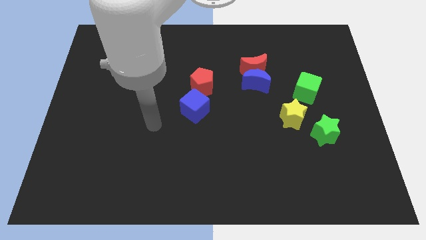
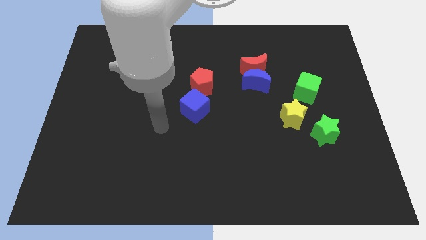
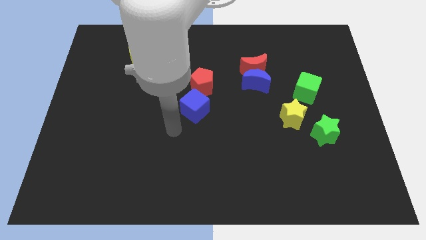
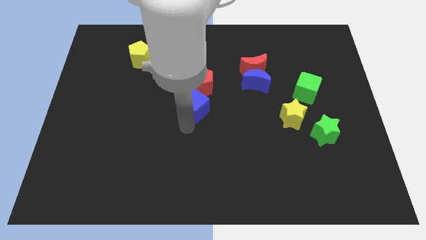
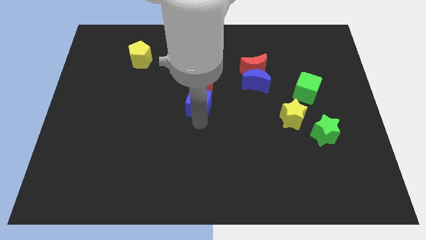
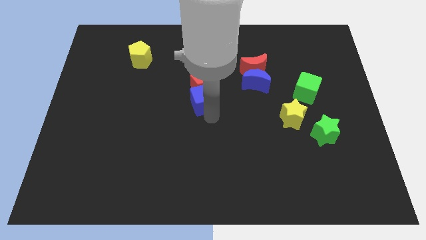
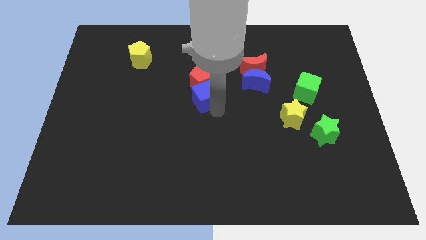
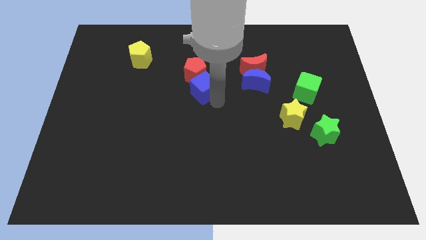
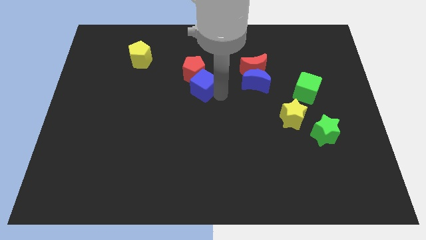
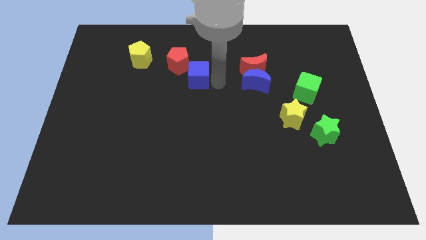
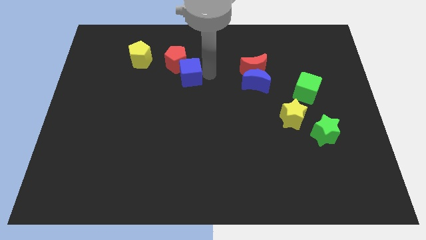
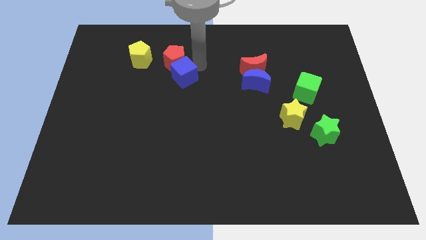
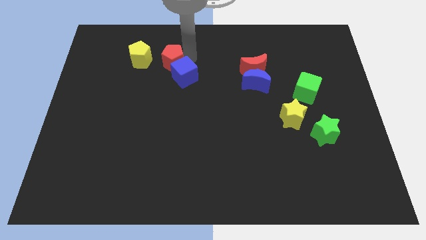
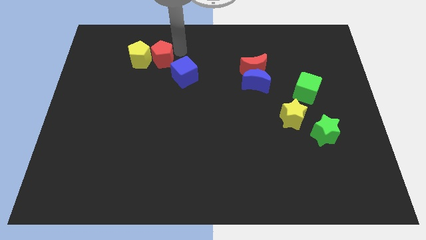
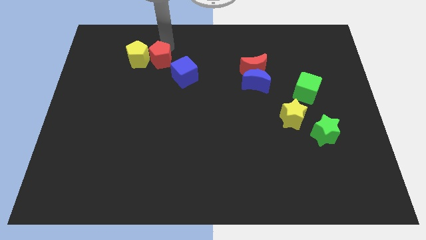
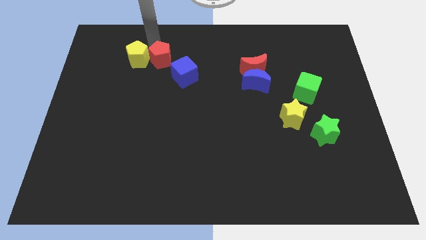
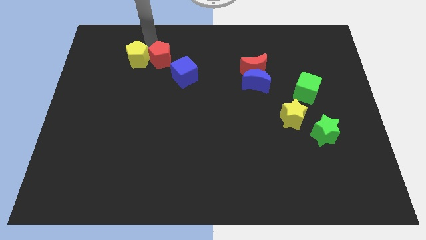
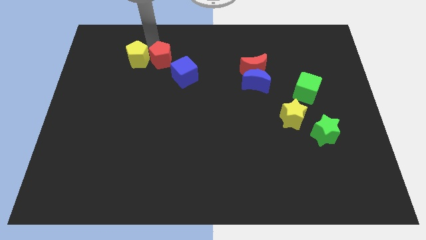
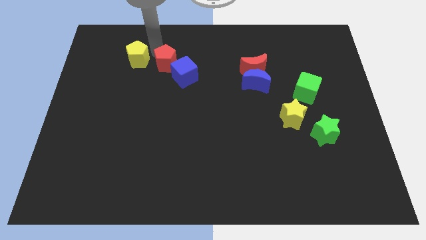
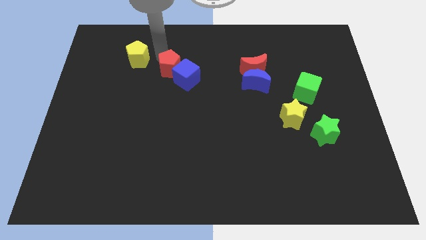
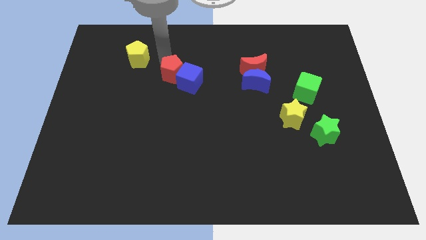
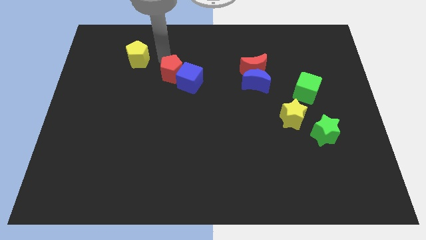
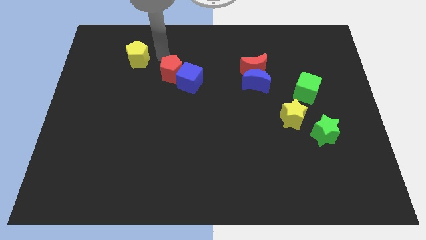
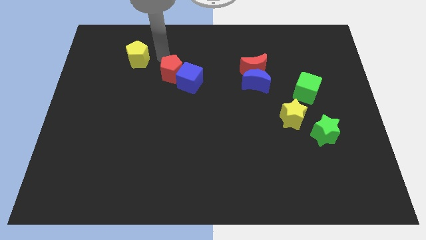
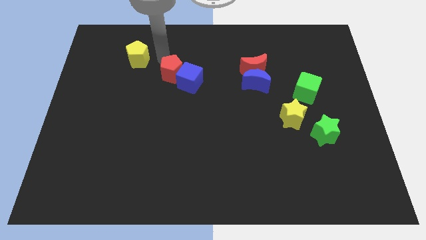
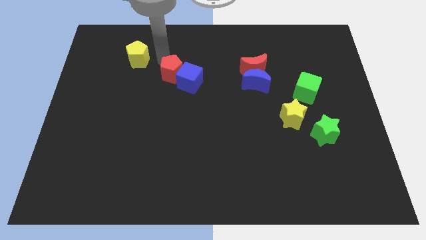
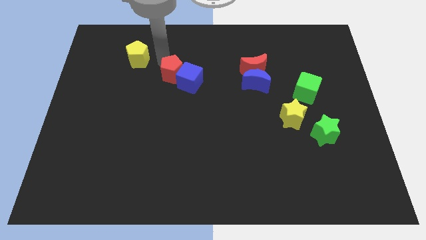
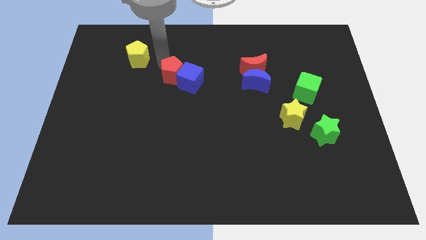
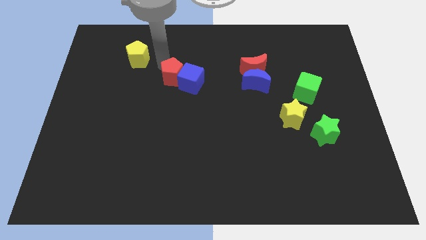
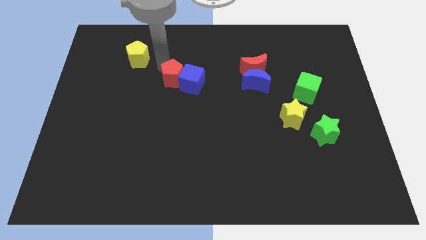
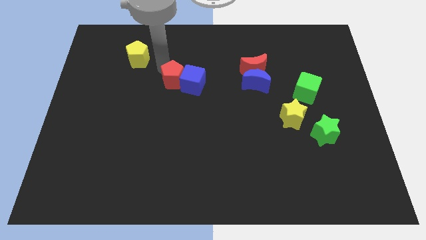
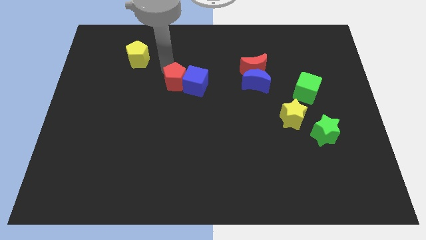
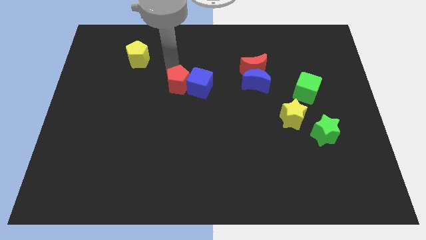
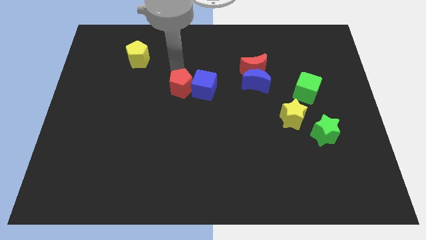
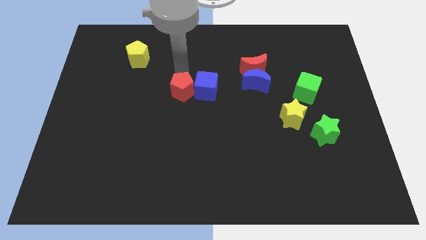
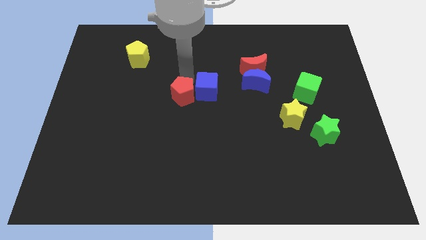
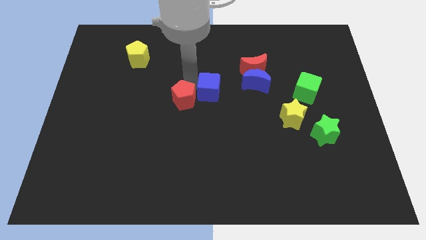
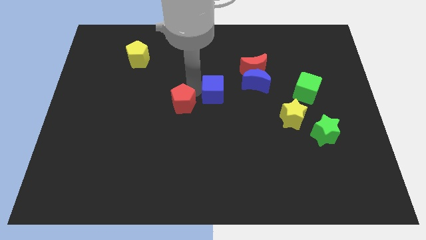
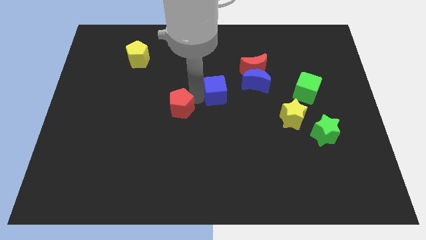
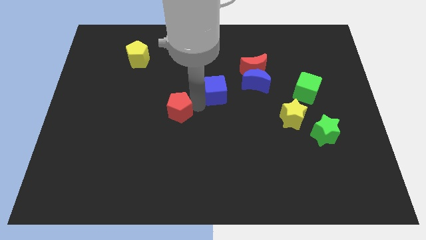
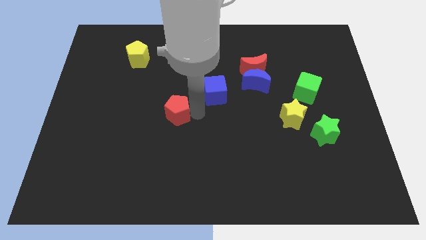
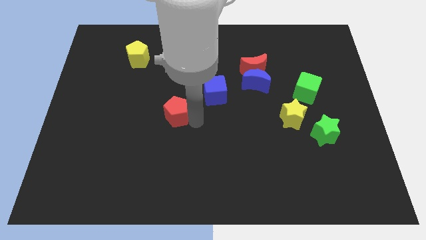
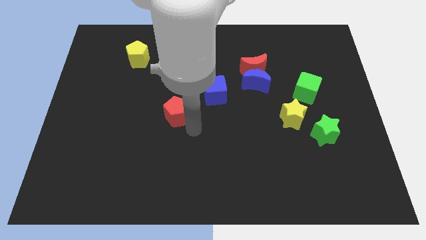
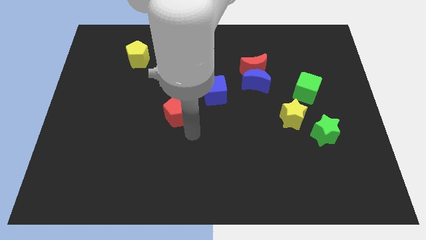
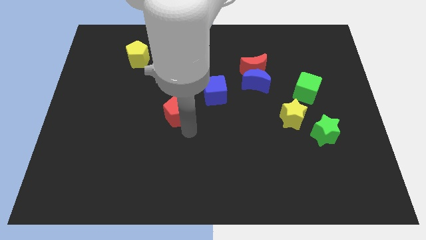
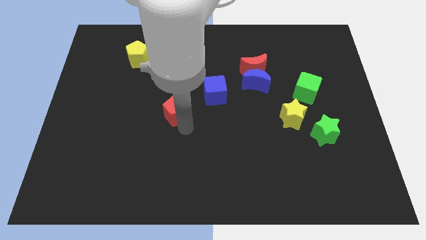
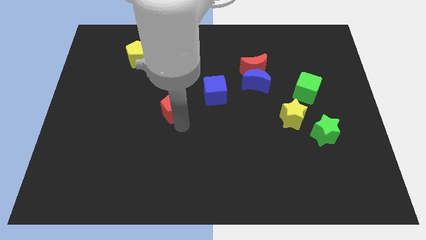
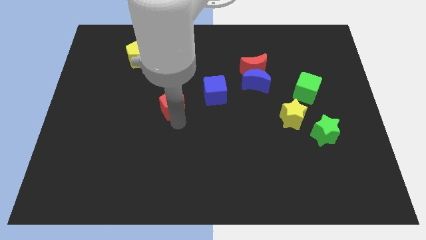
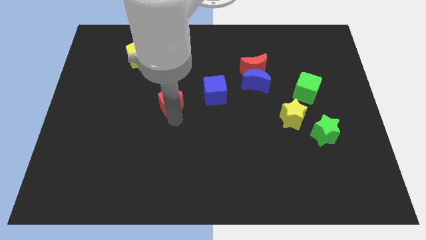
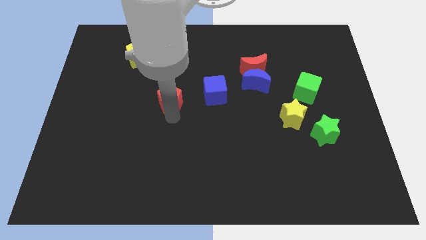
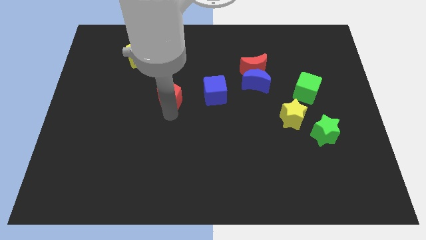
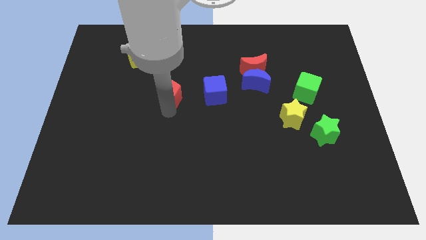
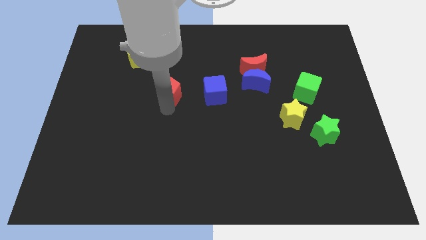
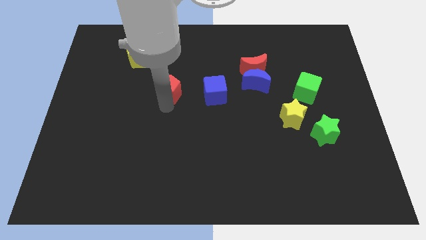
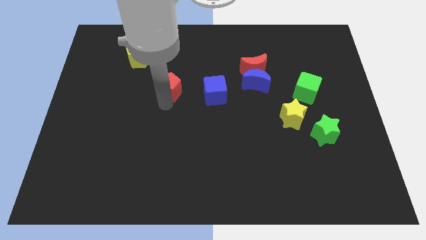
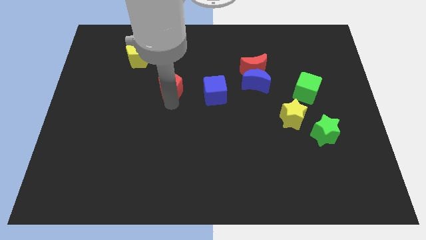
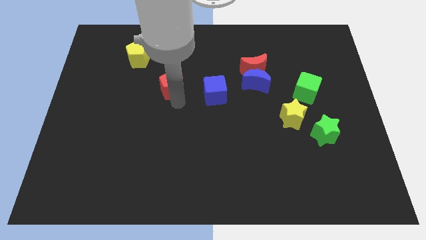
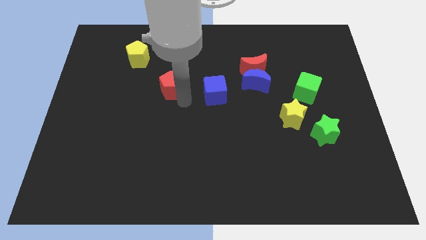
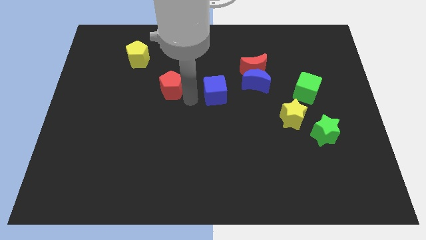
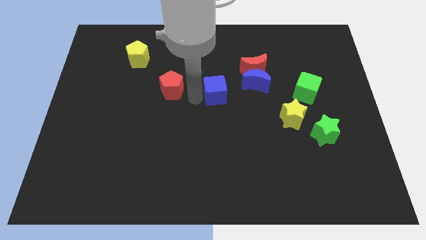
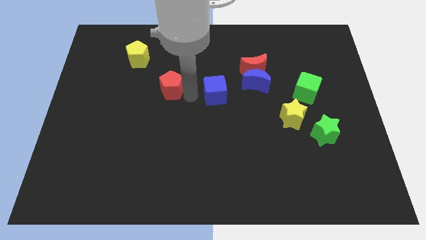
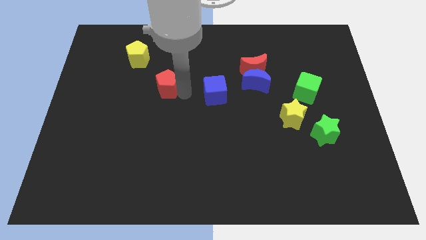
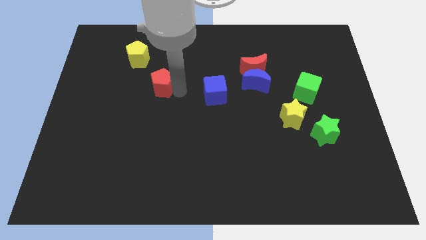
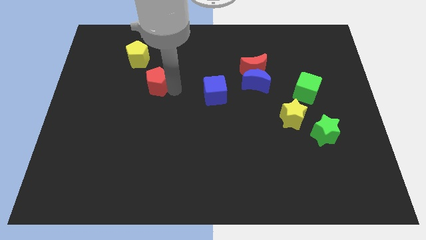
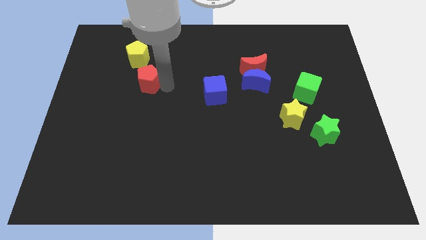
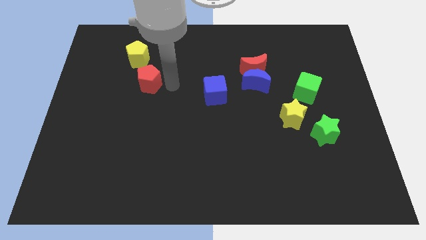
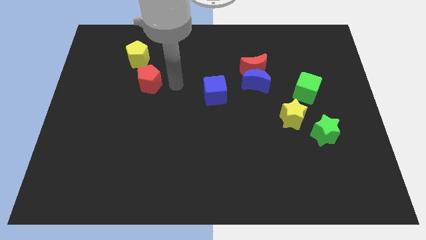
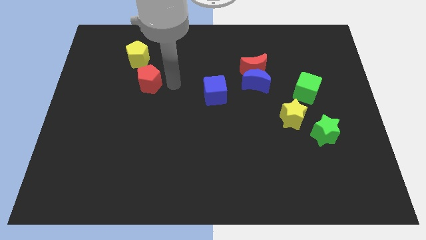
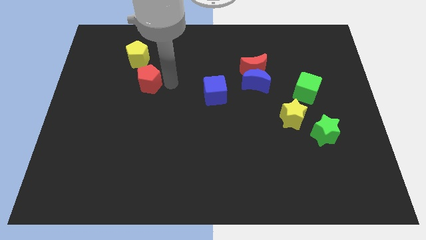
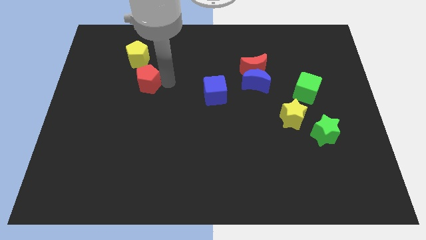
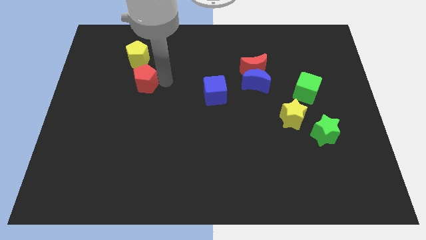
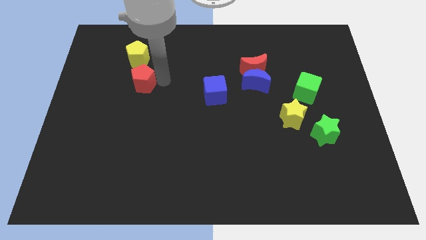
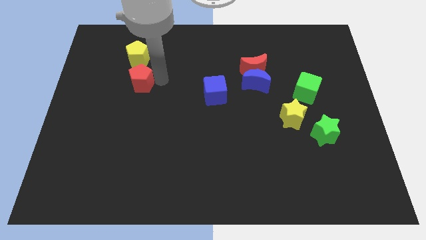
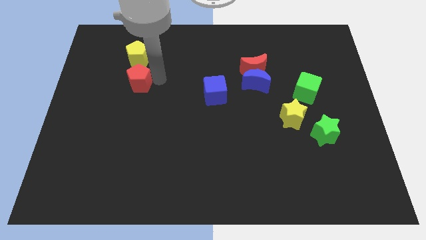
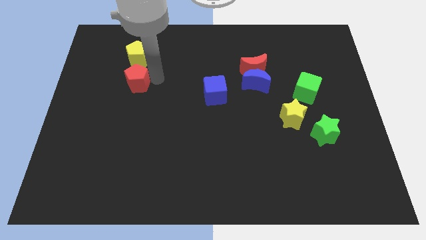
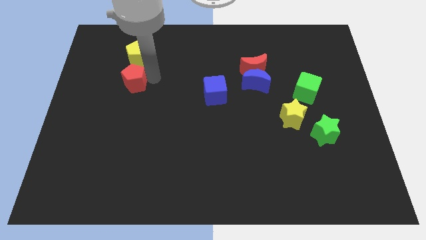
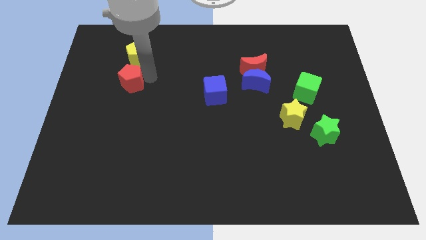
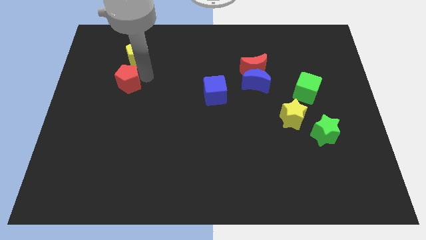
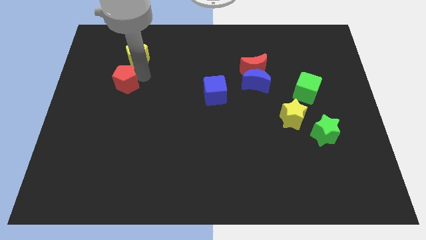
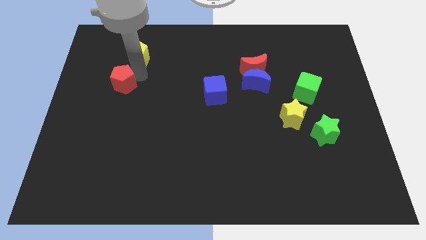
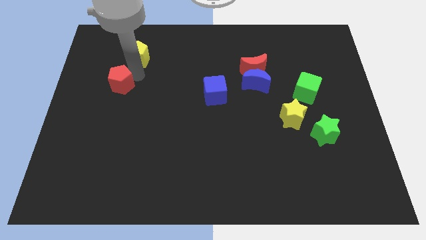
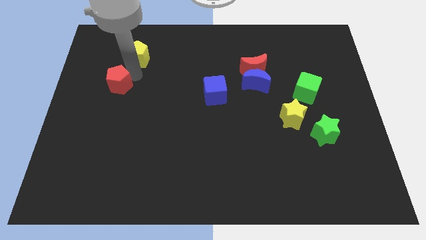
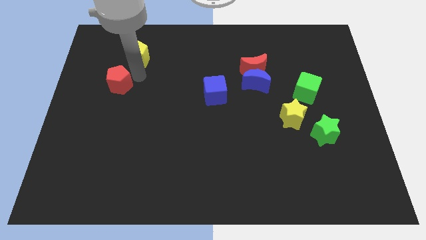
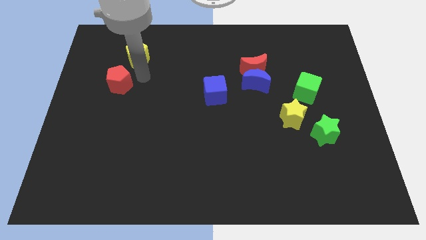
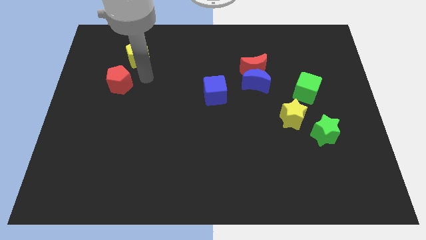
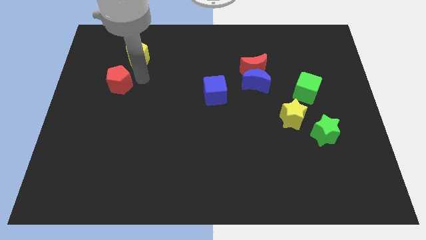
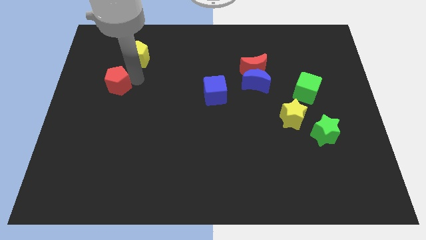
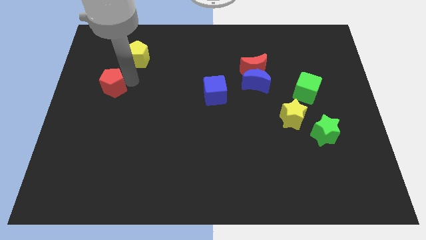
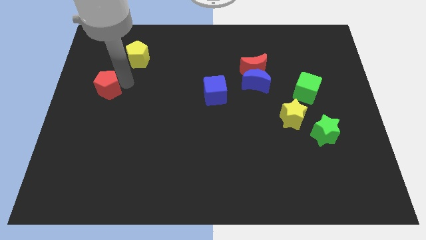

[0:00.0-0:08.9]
put the red pentagon to the left side of the board
